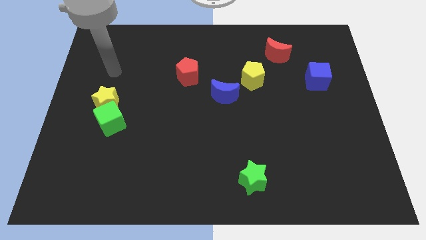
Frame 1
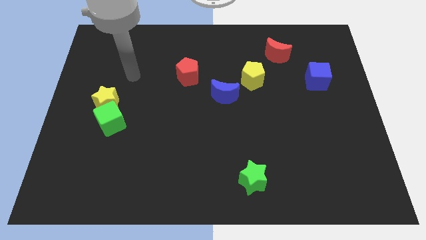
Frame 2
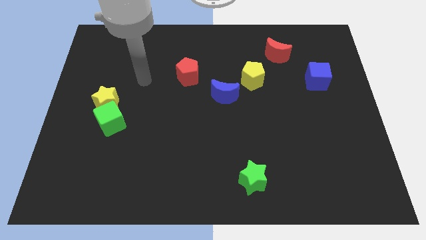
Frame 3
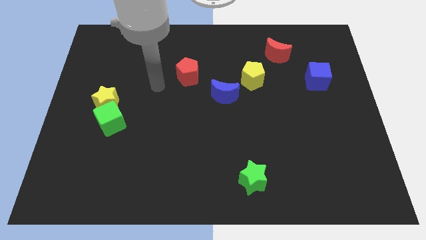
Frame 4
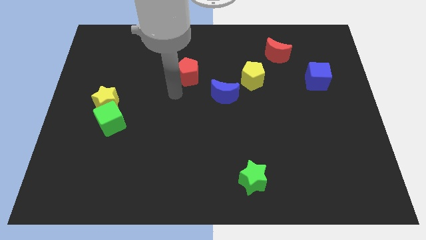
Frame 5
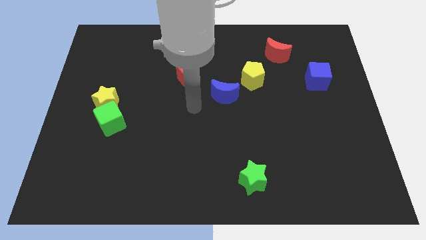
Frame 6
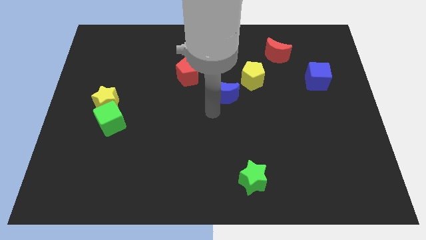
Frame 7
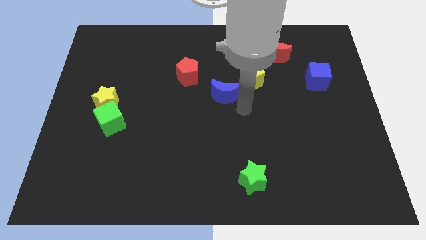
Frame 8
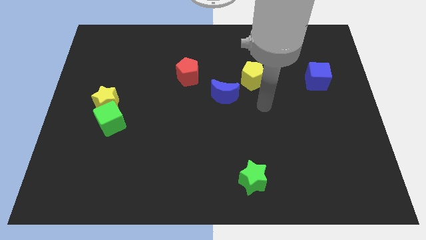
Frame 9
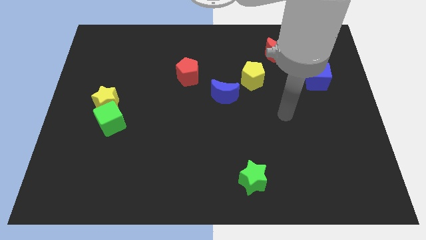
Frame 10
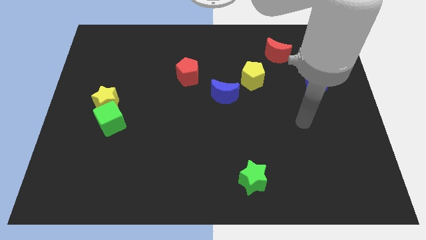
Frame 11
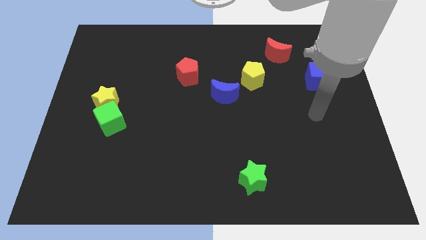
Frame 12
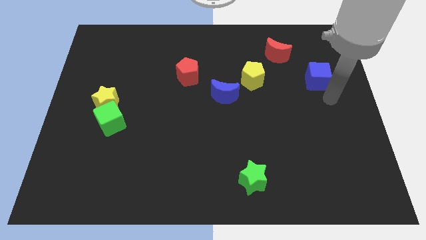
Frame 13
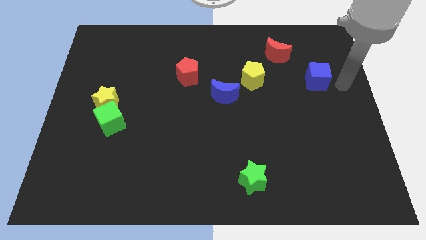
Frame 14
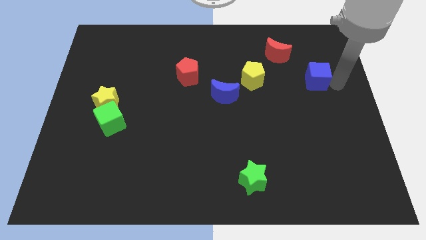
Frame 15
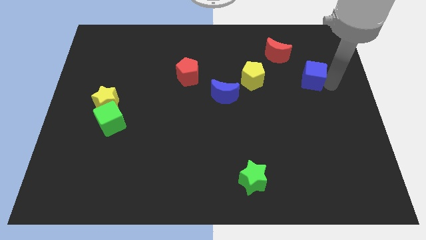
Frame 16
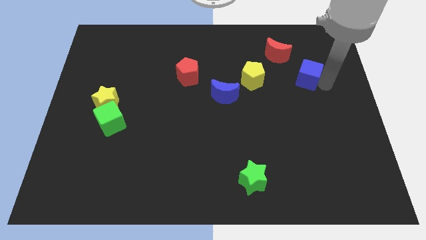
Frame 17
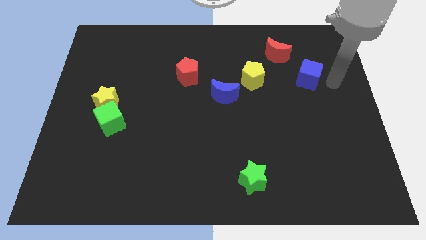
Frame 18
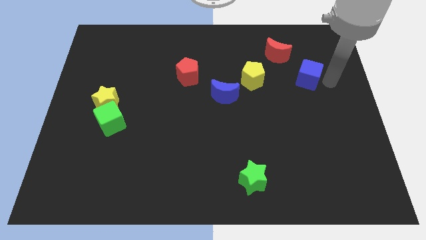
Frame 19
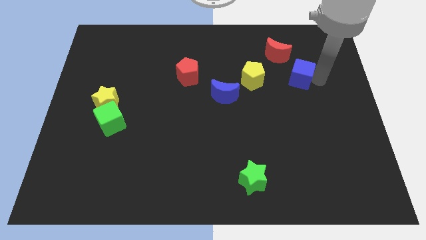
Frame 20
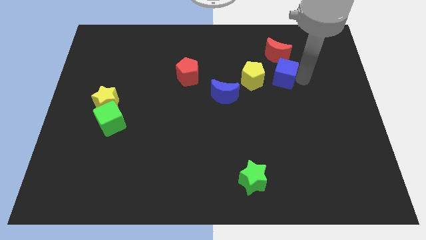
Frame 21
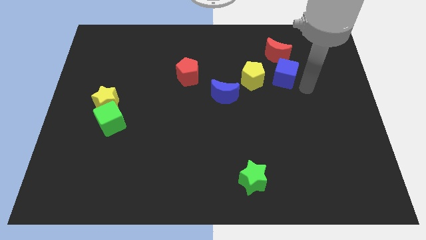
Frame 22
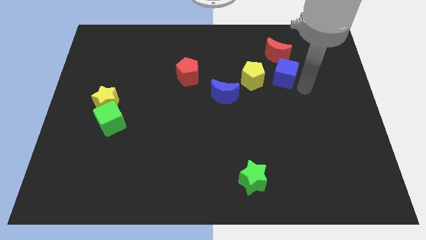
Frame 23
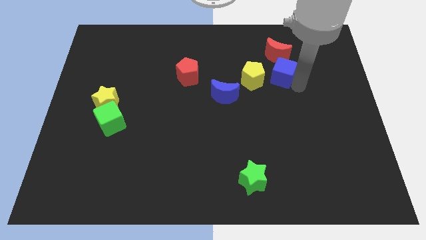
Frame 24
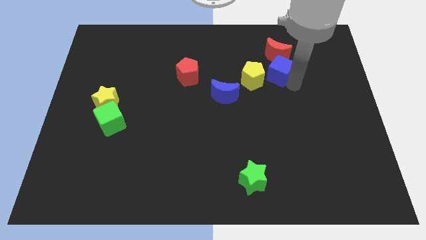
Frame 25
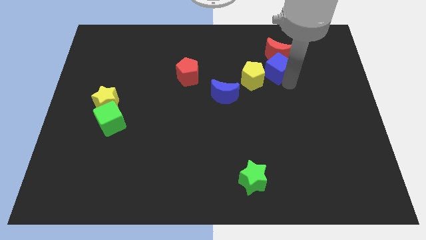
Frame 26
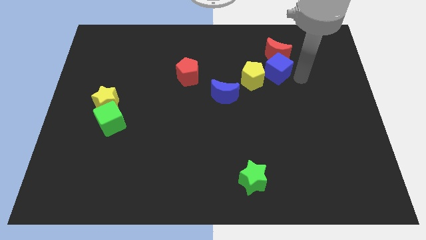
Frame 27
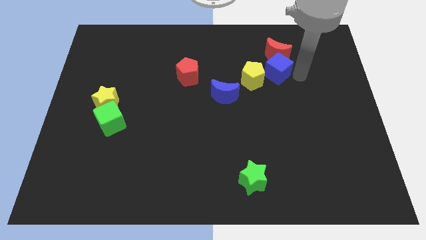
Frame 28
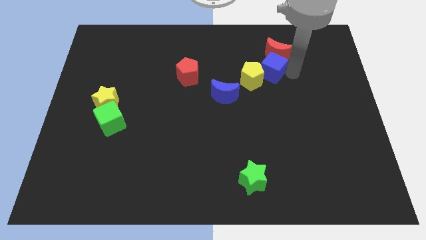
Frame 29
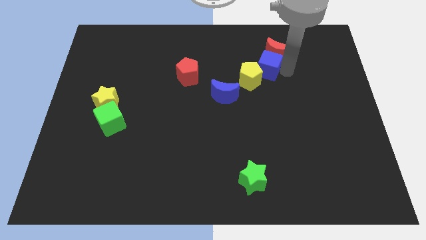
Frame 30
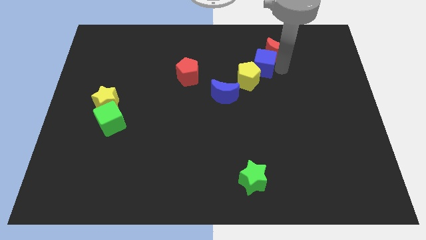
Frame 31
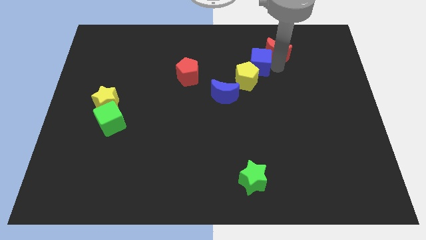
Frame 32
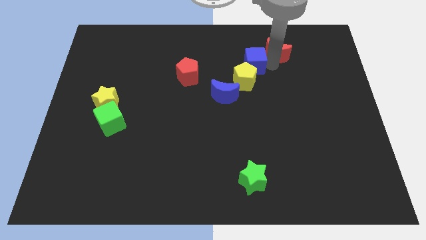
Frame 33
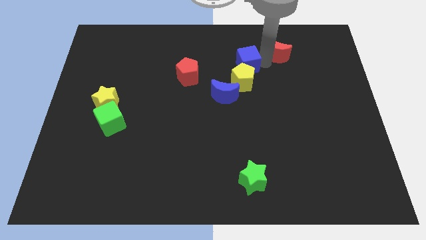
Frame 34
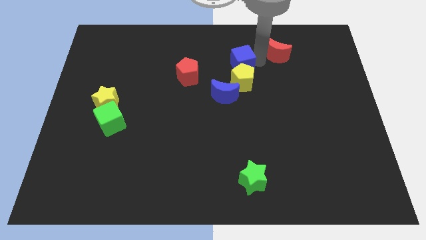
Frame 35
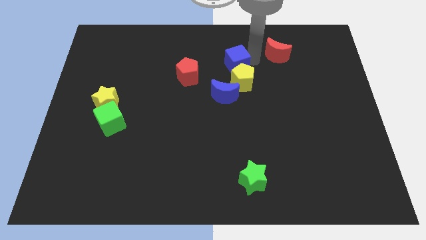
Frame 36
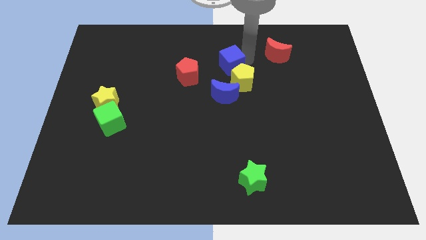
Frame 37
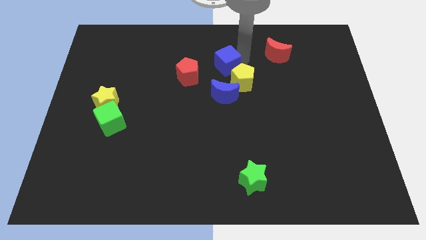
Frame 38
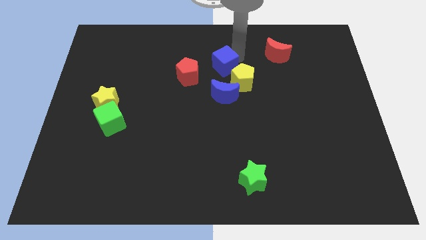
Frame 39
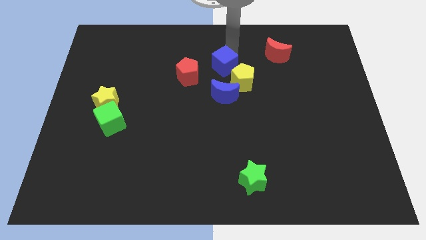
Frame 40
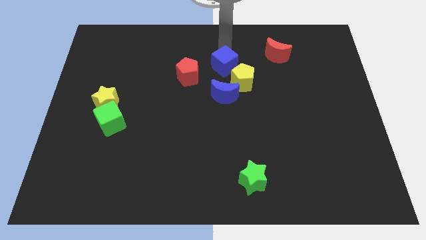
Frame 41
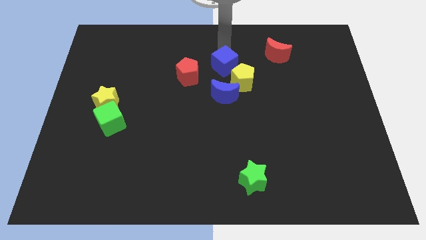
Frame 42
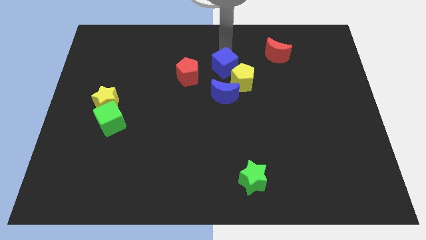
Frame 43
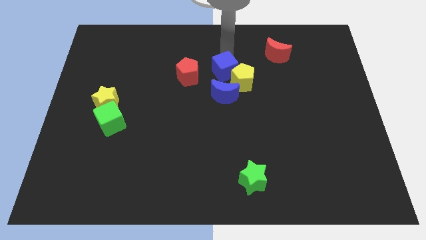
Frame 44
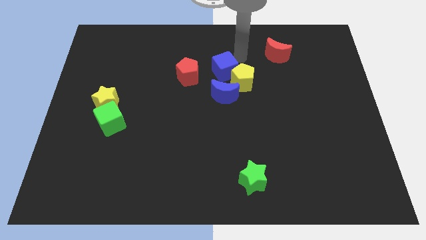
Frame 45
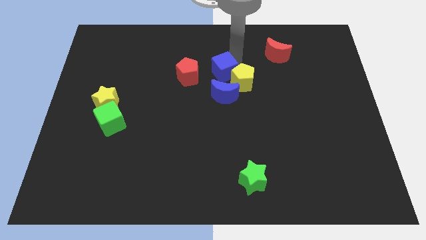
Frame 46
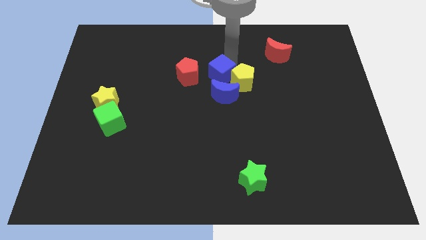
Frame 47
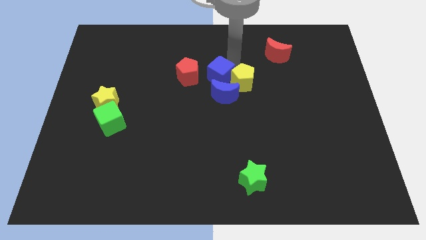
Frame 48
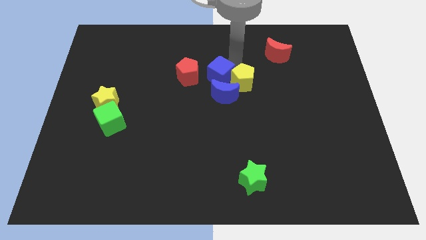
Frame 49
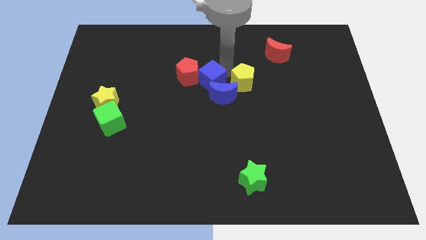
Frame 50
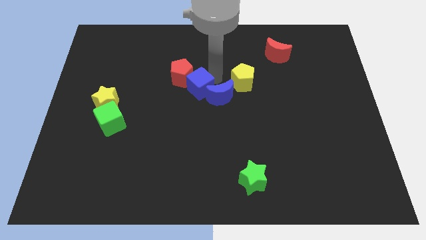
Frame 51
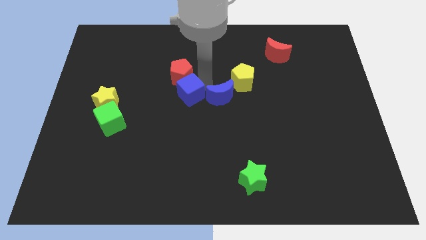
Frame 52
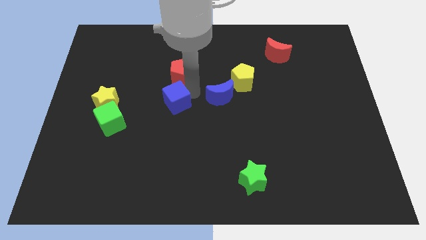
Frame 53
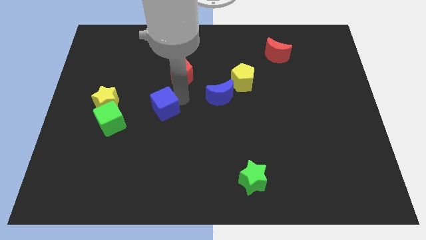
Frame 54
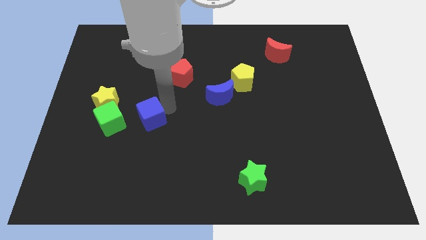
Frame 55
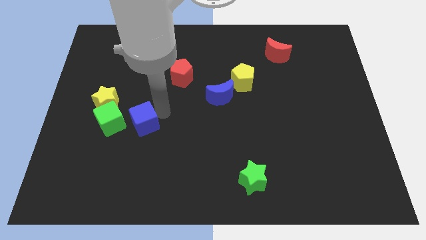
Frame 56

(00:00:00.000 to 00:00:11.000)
put the blue cube to the bottom right of the yellow star

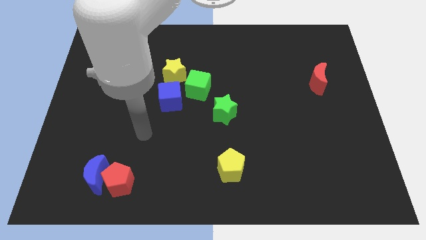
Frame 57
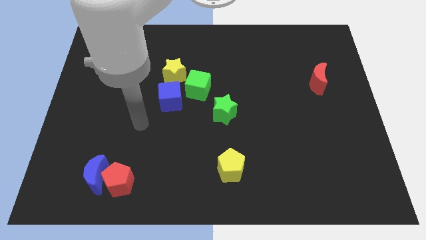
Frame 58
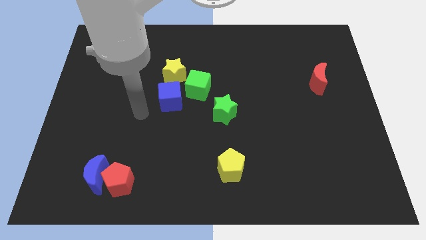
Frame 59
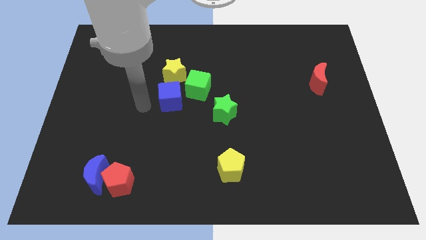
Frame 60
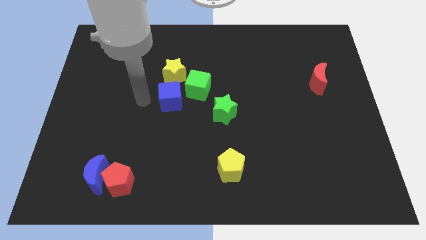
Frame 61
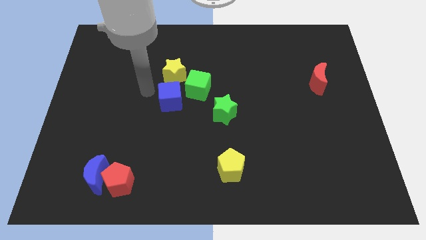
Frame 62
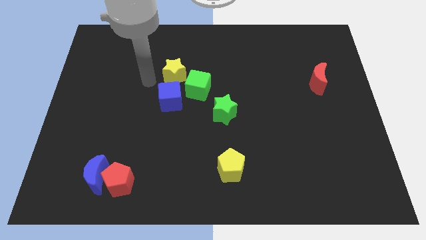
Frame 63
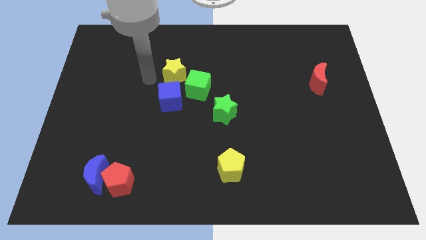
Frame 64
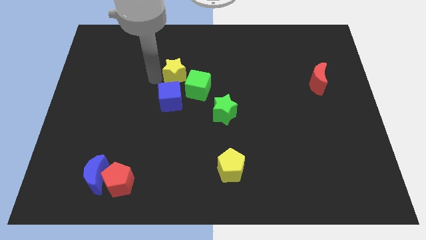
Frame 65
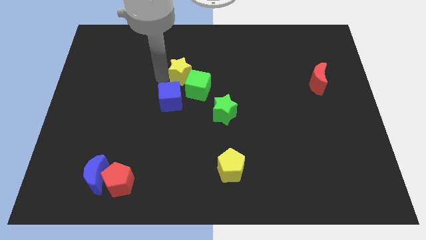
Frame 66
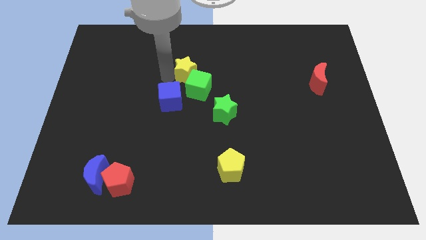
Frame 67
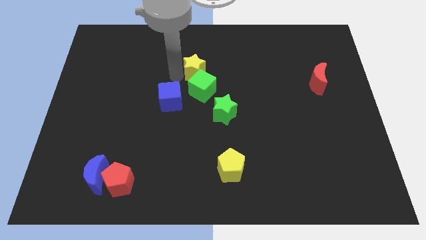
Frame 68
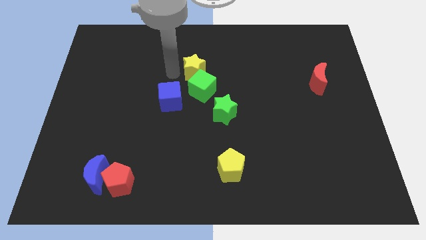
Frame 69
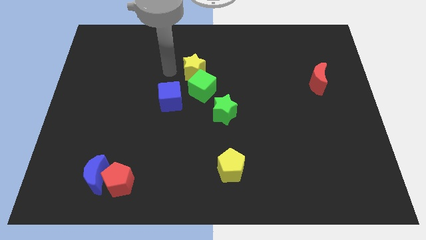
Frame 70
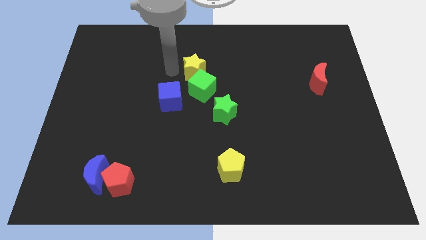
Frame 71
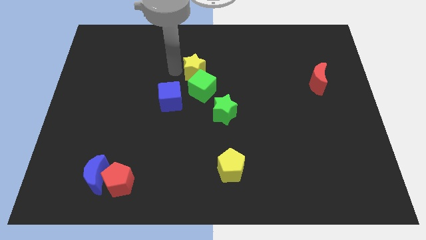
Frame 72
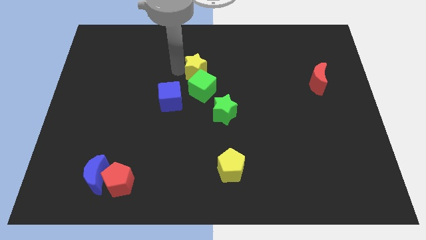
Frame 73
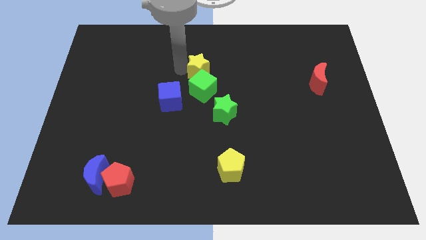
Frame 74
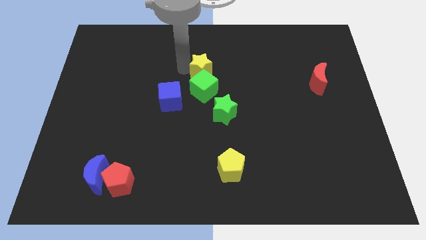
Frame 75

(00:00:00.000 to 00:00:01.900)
slide the yellow star to the top right of the green cube
